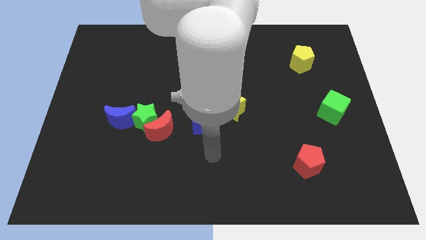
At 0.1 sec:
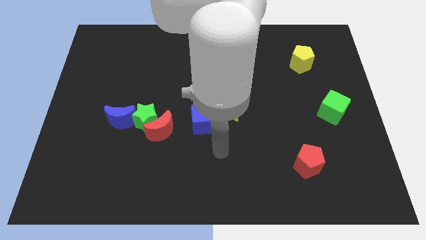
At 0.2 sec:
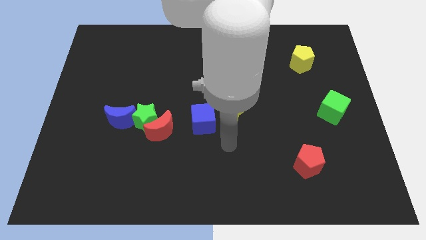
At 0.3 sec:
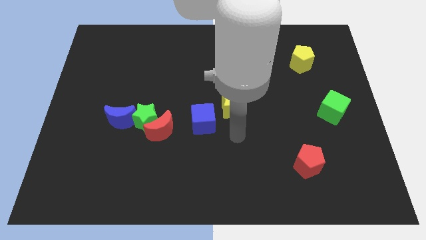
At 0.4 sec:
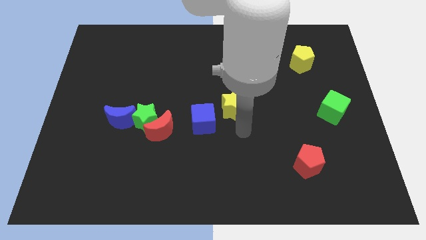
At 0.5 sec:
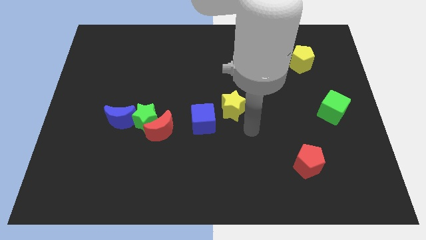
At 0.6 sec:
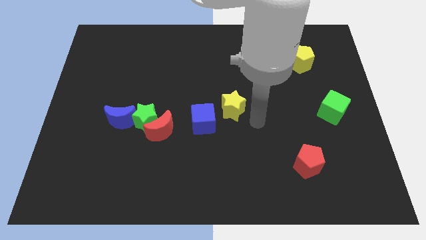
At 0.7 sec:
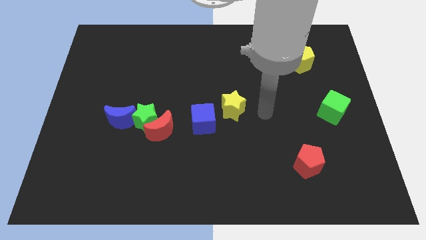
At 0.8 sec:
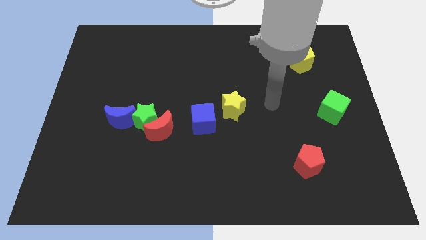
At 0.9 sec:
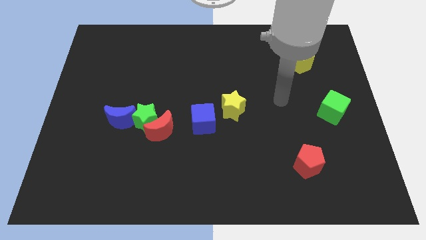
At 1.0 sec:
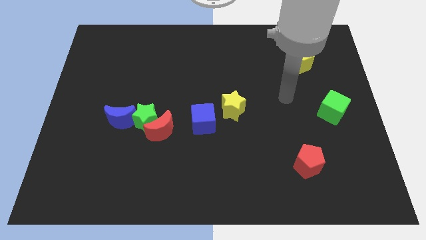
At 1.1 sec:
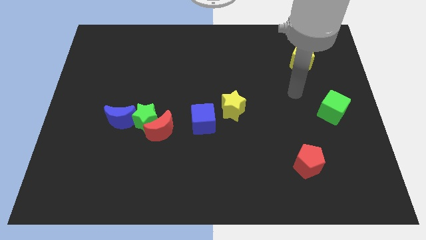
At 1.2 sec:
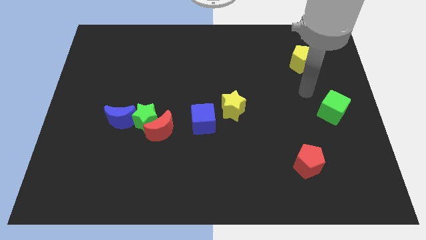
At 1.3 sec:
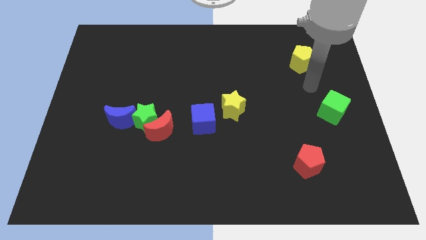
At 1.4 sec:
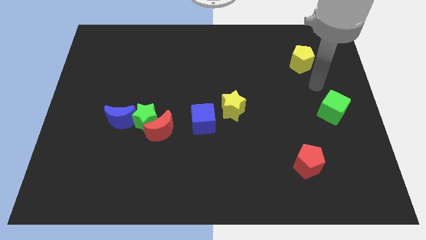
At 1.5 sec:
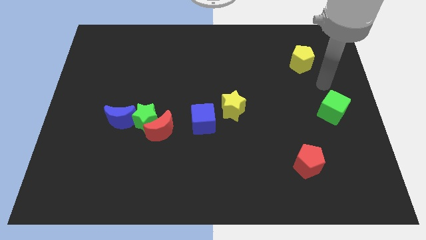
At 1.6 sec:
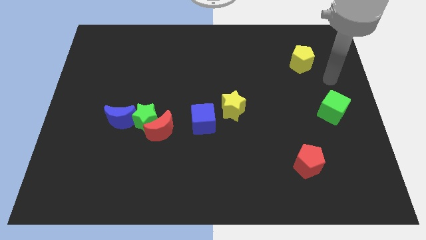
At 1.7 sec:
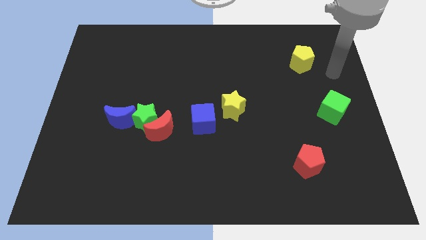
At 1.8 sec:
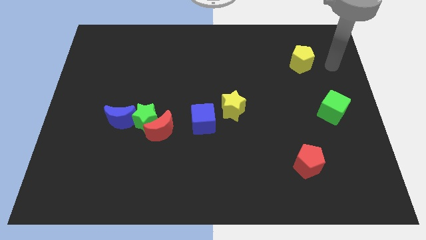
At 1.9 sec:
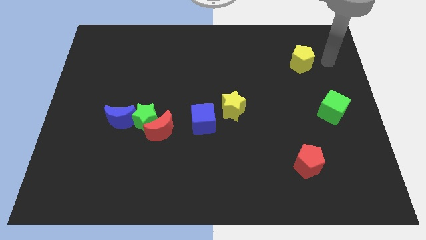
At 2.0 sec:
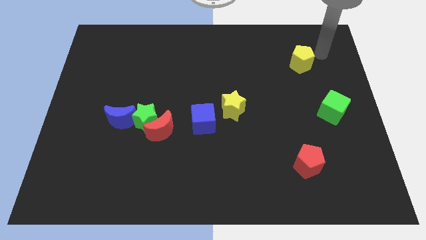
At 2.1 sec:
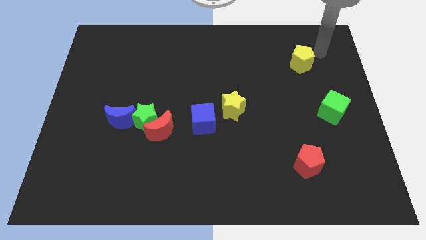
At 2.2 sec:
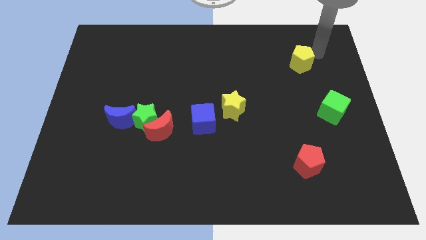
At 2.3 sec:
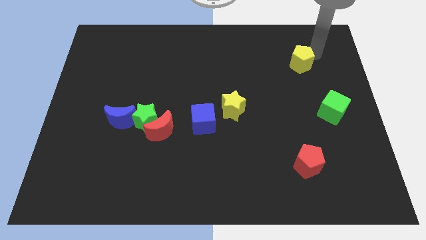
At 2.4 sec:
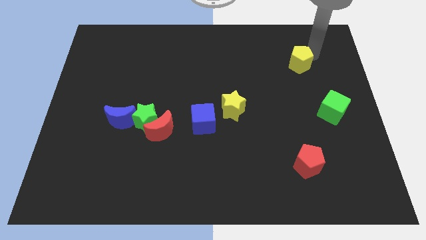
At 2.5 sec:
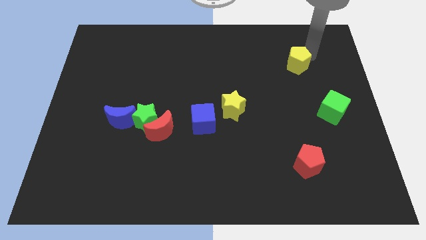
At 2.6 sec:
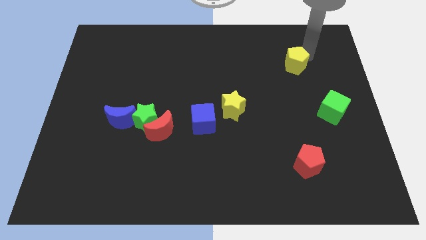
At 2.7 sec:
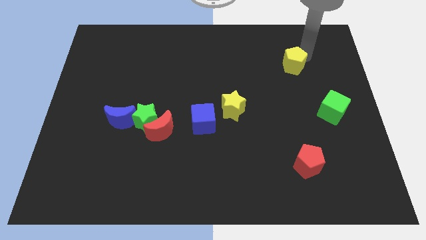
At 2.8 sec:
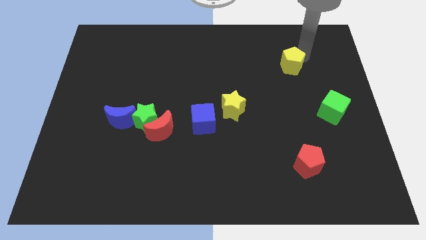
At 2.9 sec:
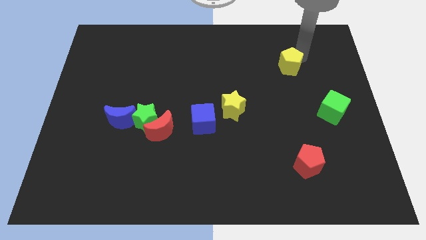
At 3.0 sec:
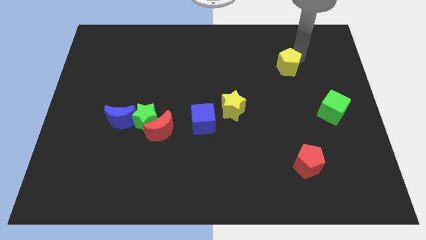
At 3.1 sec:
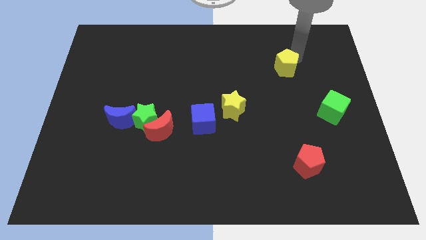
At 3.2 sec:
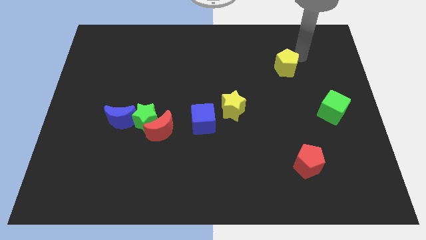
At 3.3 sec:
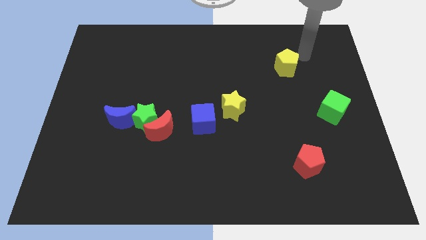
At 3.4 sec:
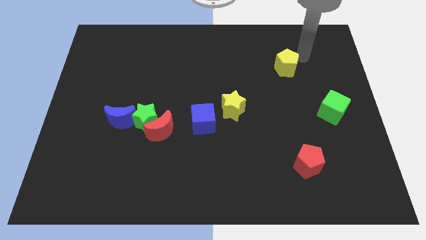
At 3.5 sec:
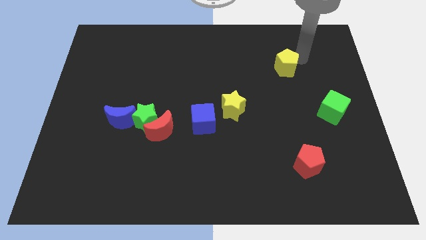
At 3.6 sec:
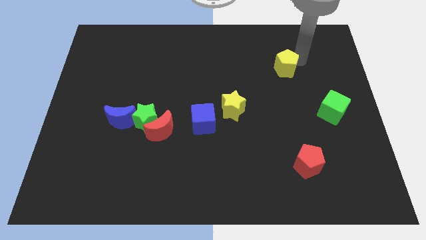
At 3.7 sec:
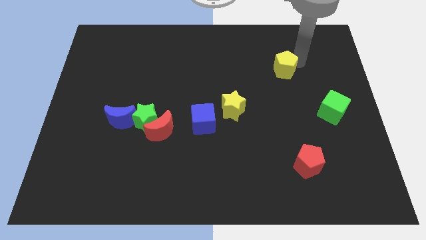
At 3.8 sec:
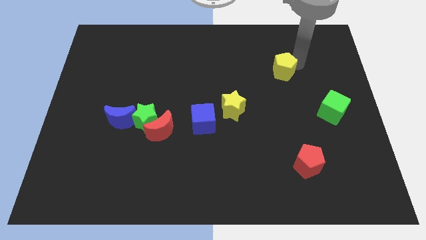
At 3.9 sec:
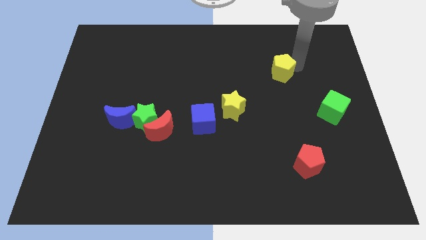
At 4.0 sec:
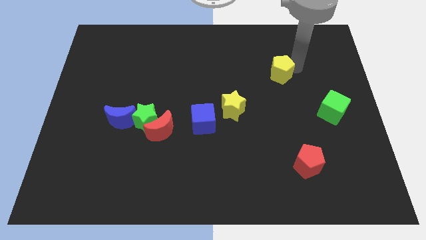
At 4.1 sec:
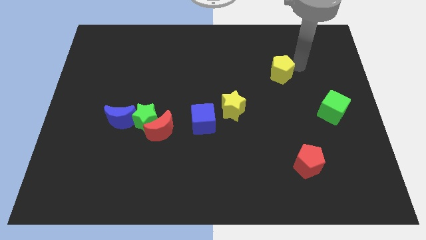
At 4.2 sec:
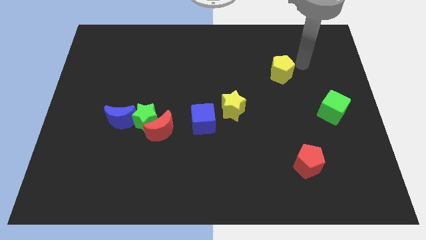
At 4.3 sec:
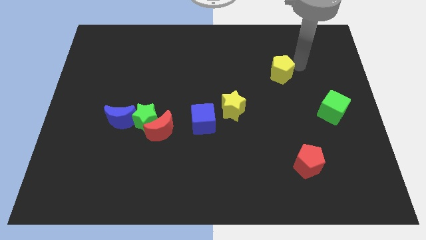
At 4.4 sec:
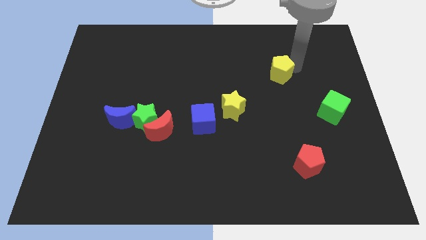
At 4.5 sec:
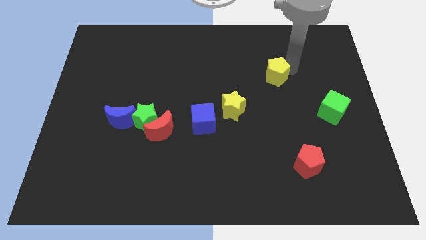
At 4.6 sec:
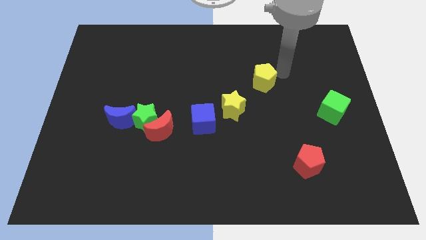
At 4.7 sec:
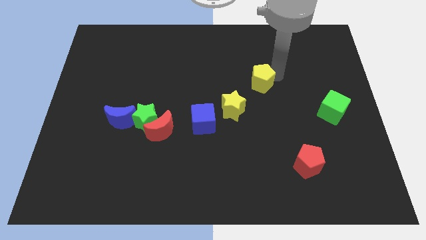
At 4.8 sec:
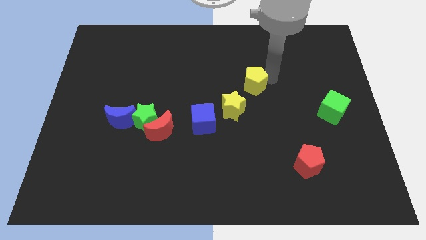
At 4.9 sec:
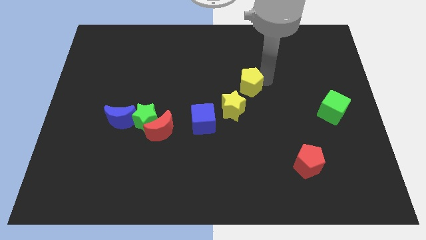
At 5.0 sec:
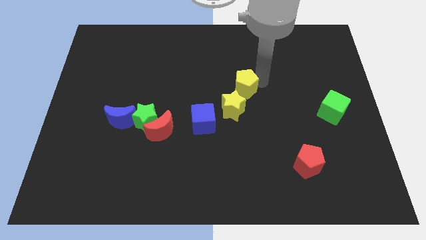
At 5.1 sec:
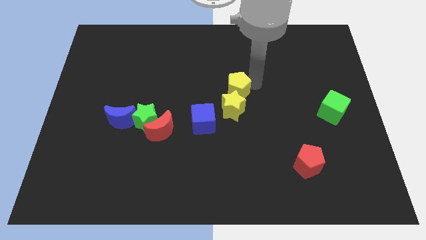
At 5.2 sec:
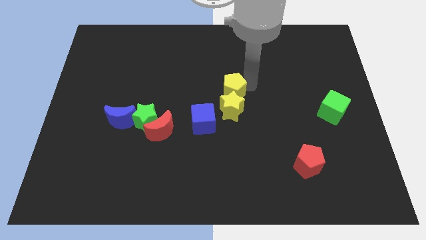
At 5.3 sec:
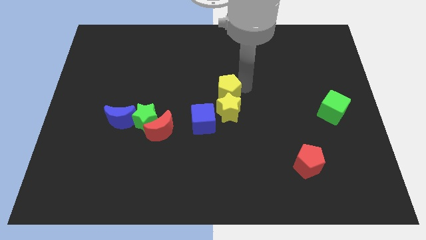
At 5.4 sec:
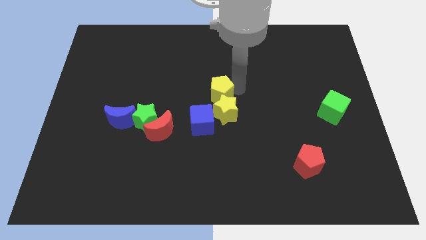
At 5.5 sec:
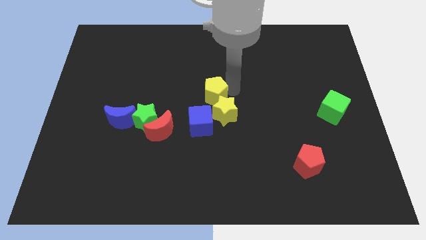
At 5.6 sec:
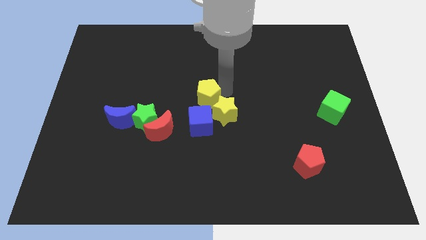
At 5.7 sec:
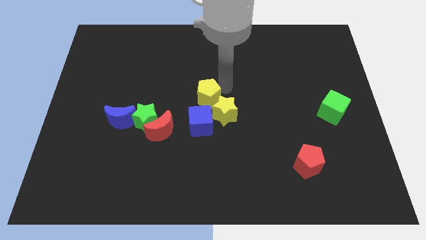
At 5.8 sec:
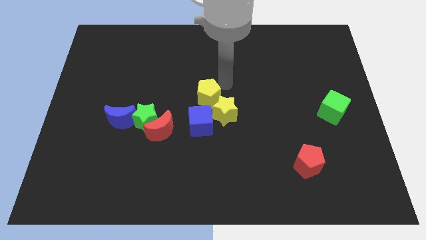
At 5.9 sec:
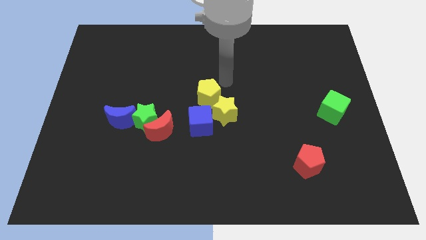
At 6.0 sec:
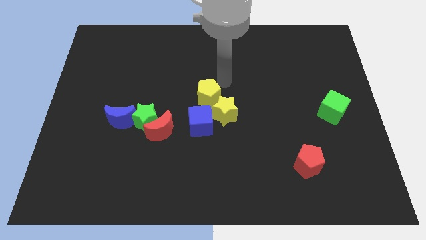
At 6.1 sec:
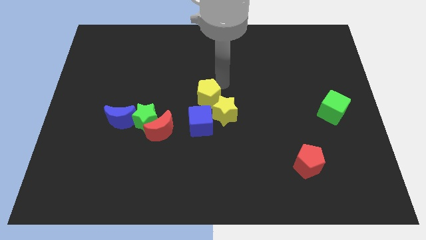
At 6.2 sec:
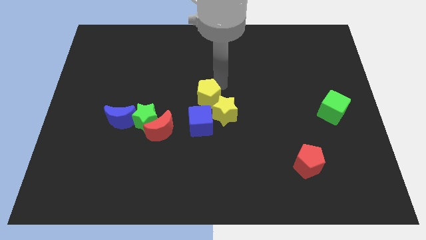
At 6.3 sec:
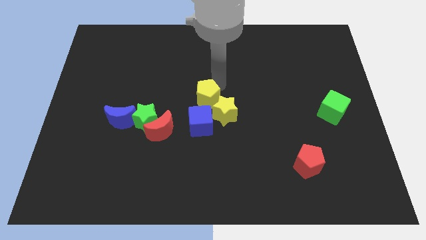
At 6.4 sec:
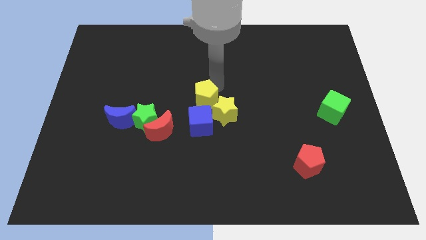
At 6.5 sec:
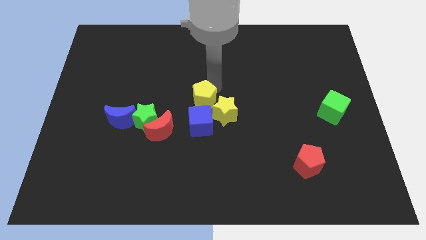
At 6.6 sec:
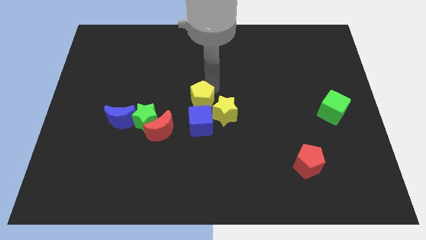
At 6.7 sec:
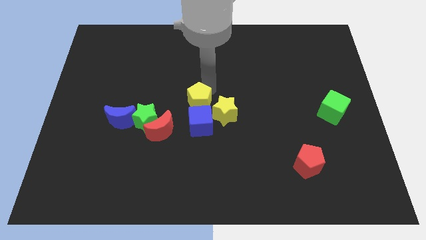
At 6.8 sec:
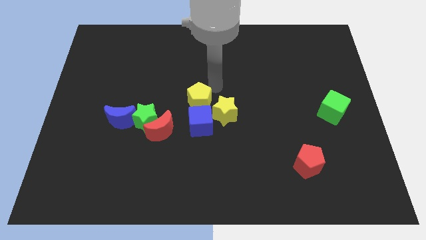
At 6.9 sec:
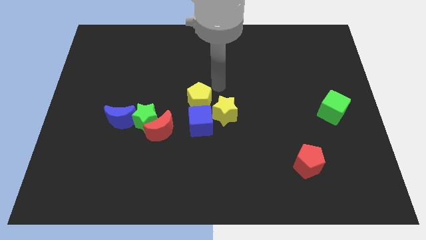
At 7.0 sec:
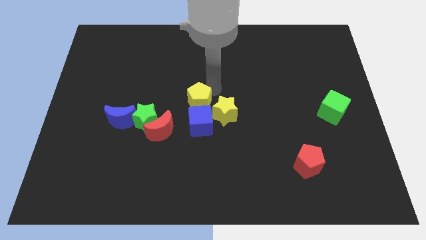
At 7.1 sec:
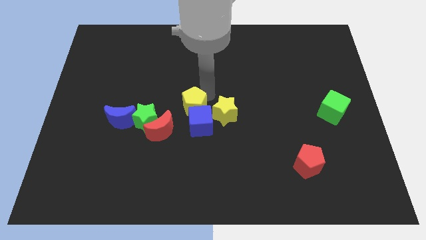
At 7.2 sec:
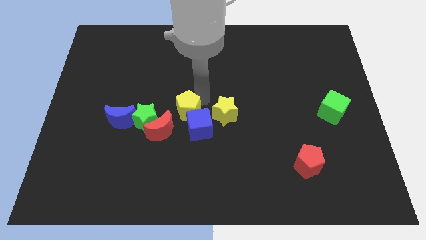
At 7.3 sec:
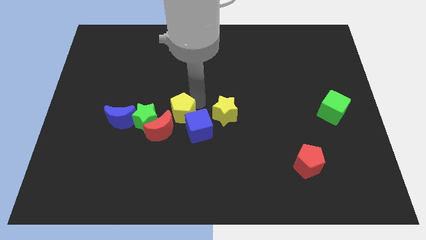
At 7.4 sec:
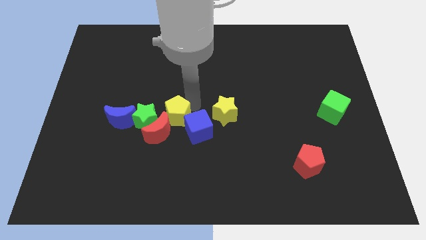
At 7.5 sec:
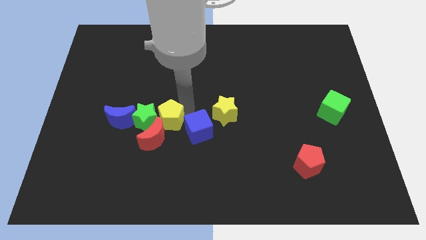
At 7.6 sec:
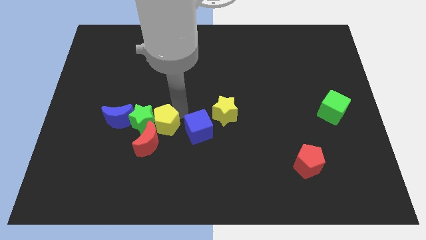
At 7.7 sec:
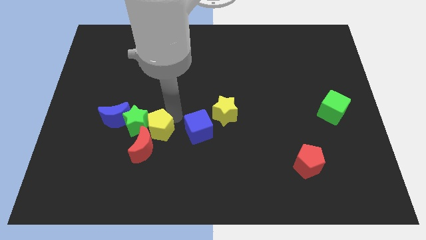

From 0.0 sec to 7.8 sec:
slide the yellow pentagon next to the red moon
